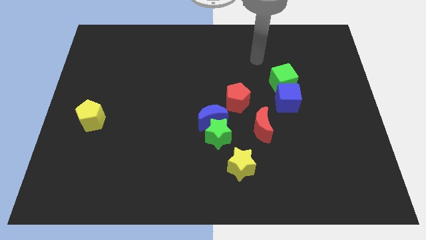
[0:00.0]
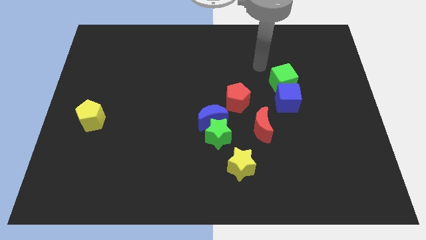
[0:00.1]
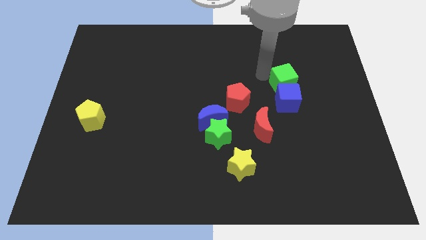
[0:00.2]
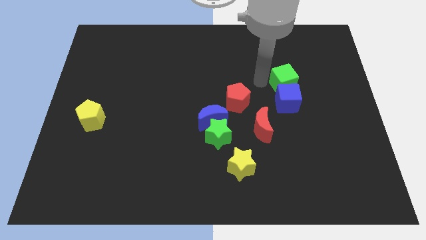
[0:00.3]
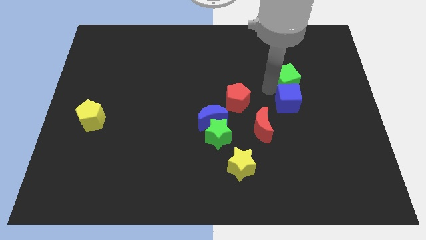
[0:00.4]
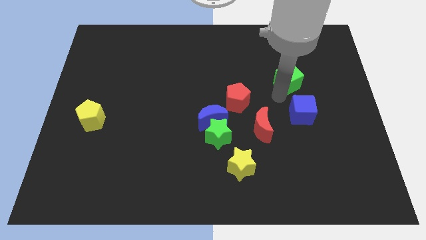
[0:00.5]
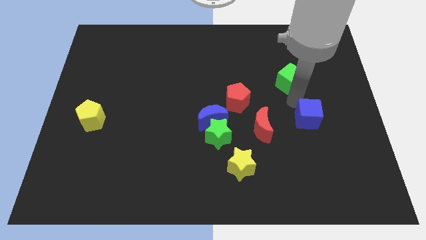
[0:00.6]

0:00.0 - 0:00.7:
pull the green cube apart from the blue cube

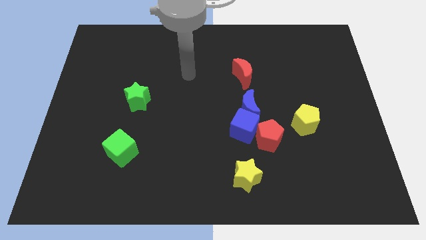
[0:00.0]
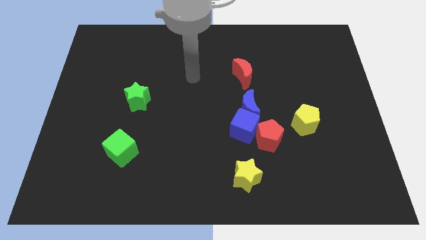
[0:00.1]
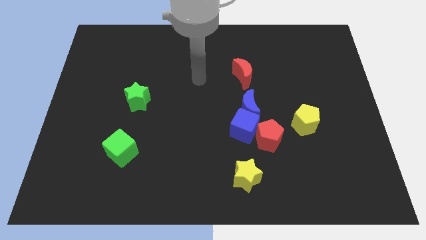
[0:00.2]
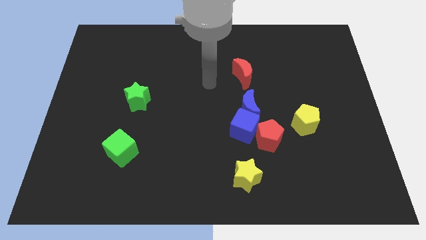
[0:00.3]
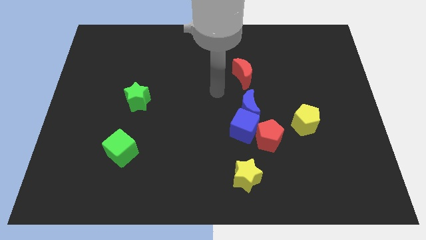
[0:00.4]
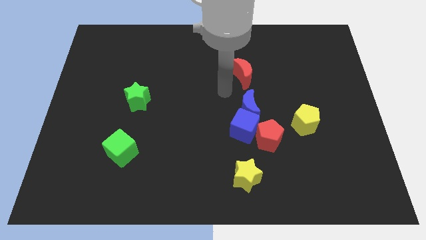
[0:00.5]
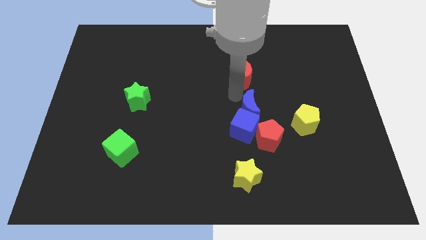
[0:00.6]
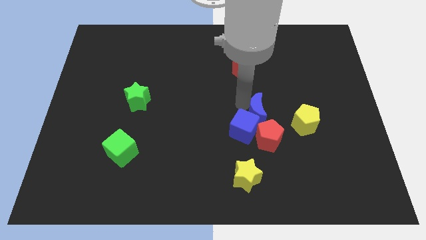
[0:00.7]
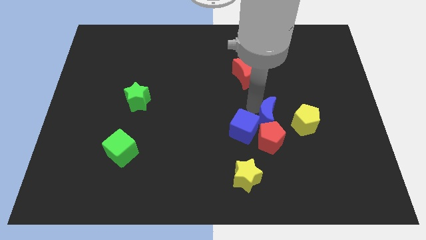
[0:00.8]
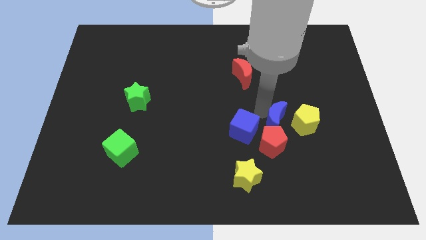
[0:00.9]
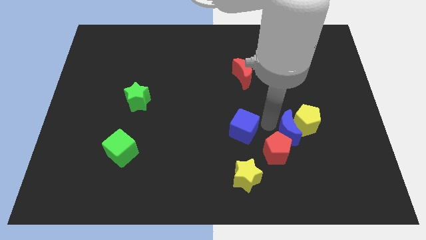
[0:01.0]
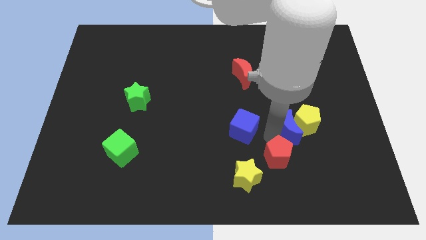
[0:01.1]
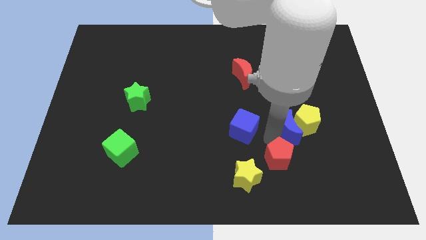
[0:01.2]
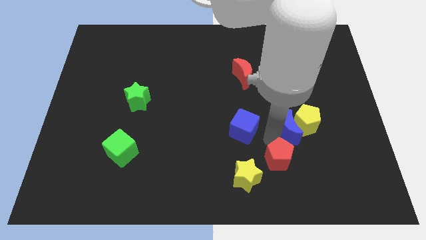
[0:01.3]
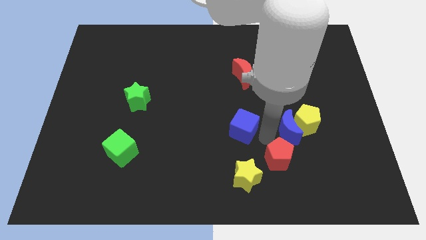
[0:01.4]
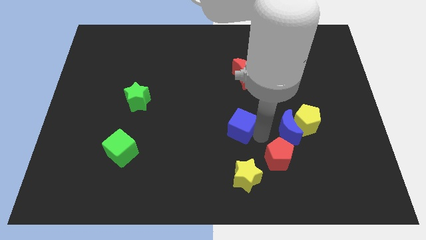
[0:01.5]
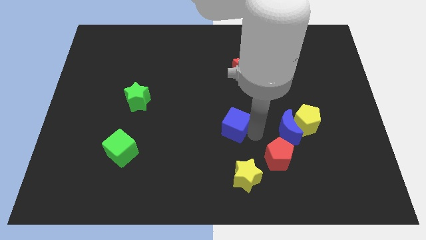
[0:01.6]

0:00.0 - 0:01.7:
separate the blue cube from the blue moon and red pentagon

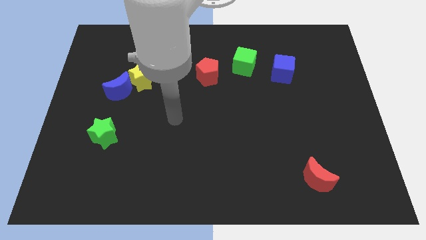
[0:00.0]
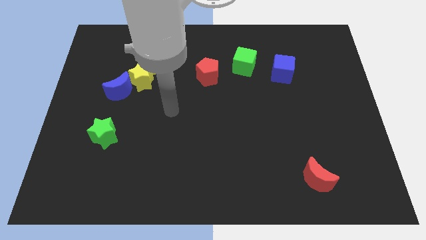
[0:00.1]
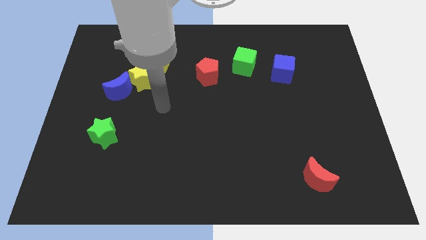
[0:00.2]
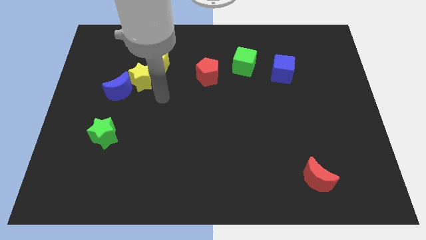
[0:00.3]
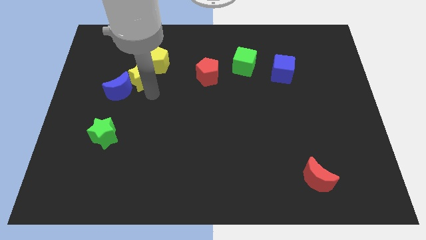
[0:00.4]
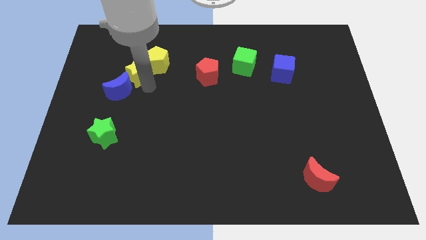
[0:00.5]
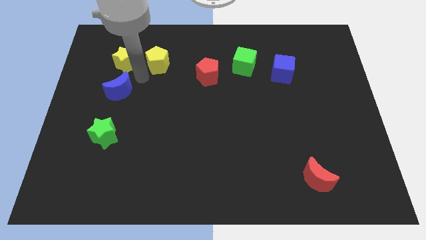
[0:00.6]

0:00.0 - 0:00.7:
move the blue moon away from the yellow star

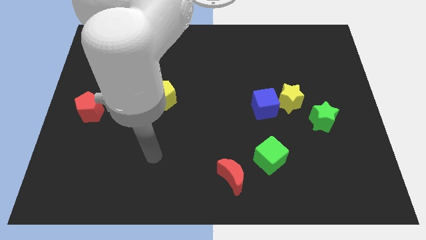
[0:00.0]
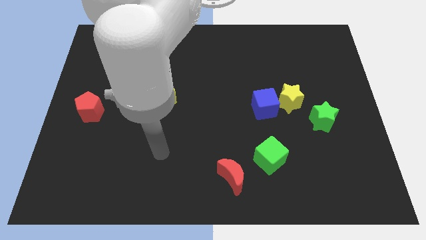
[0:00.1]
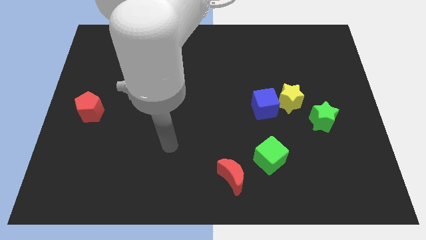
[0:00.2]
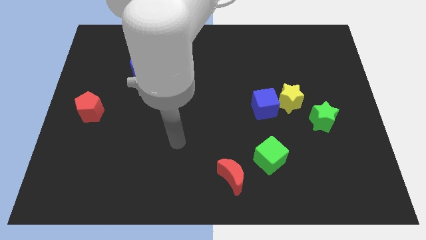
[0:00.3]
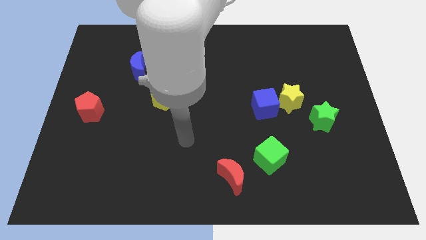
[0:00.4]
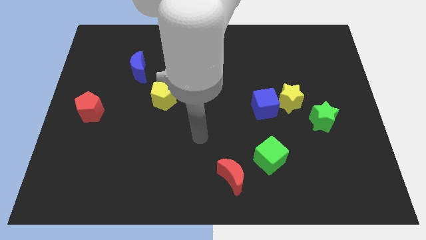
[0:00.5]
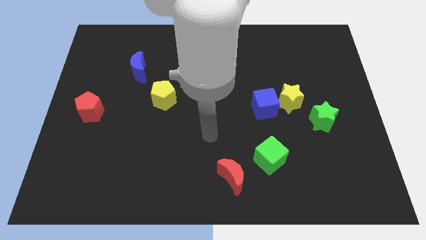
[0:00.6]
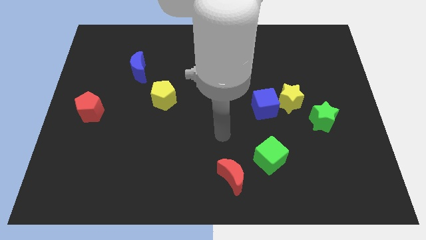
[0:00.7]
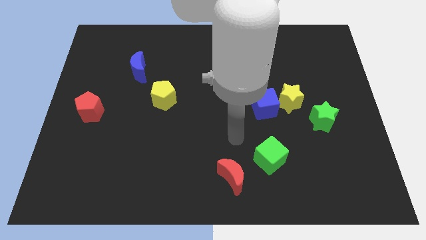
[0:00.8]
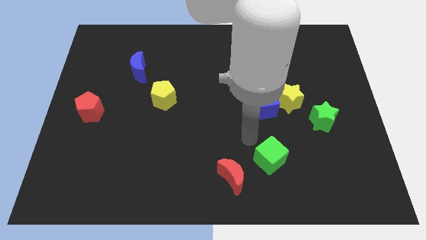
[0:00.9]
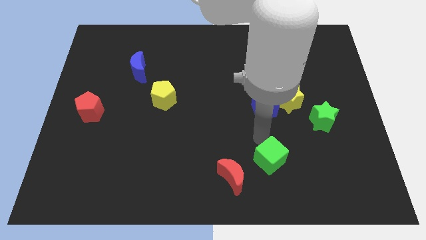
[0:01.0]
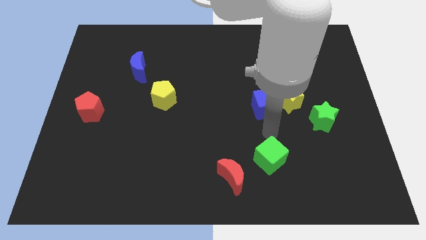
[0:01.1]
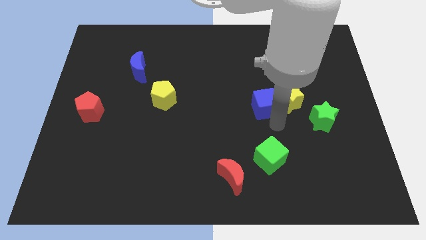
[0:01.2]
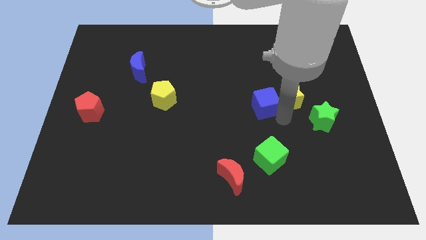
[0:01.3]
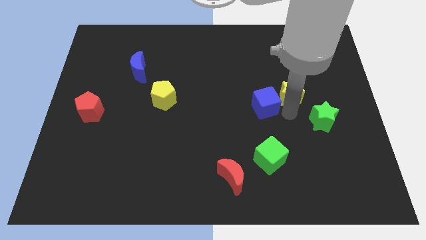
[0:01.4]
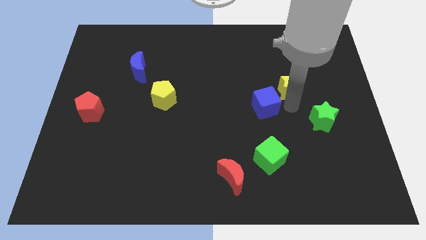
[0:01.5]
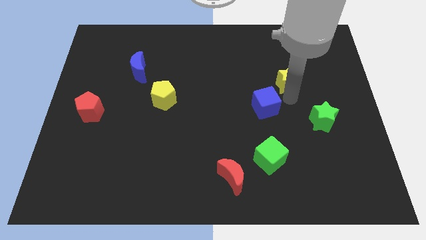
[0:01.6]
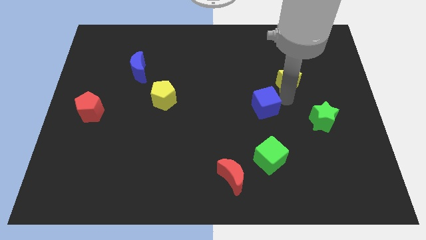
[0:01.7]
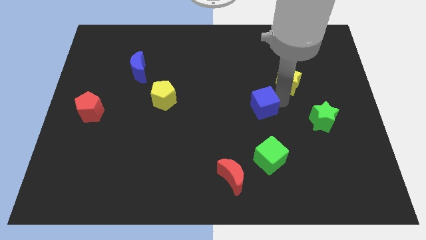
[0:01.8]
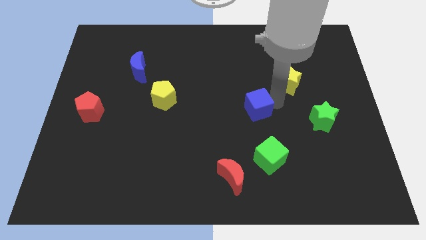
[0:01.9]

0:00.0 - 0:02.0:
separate the blue cube from the yellow star

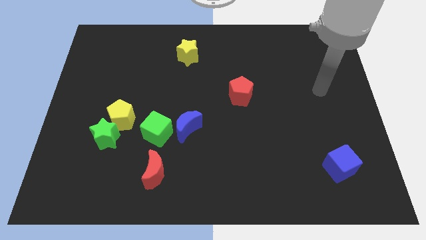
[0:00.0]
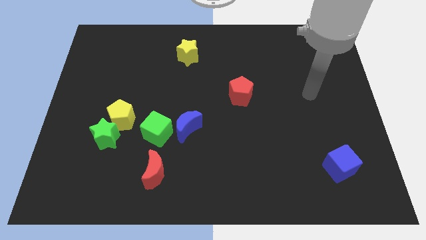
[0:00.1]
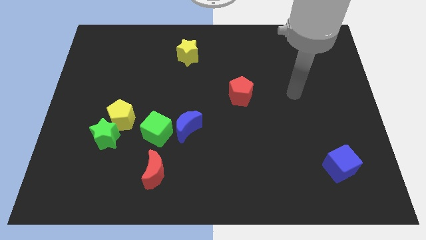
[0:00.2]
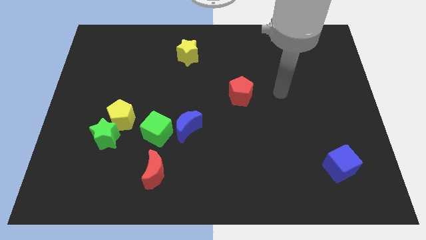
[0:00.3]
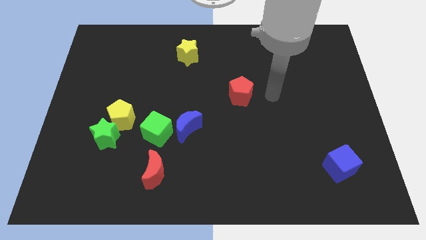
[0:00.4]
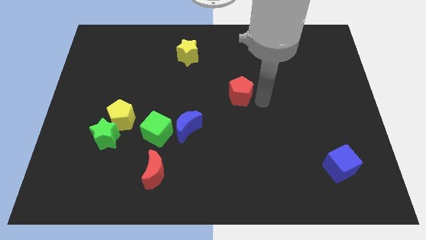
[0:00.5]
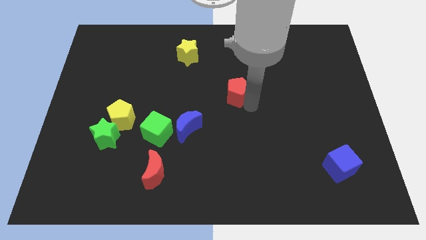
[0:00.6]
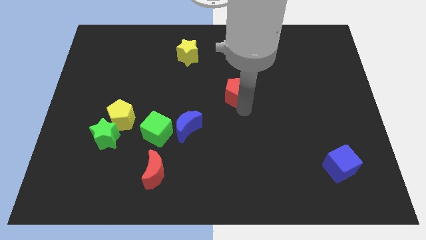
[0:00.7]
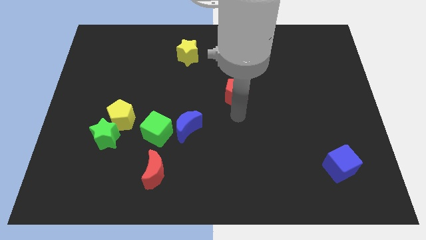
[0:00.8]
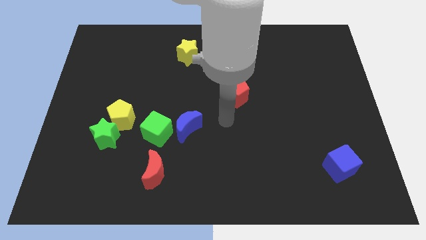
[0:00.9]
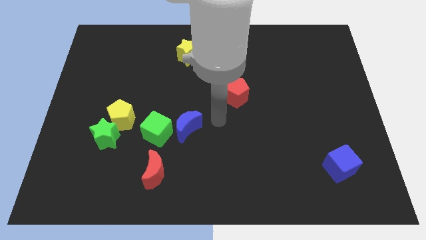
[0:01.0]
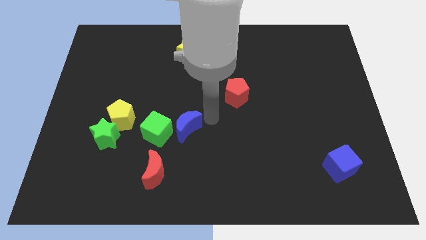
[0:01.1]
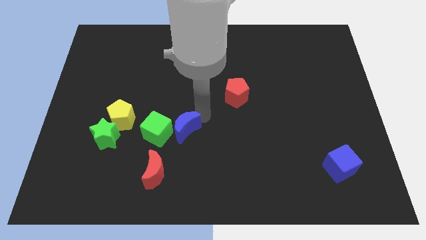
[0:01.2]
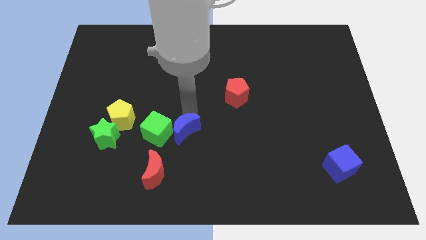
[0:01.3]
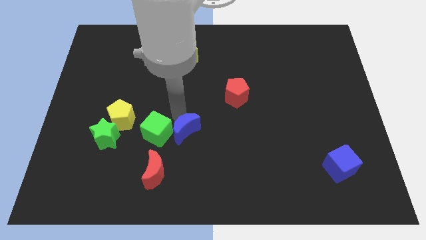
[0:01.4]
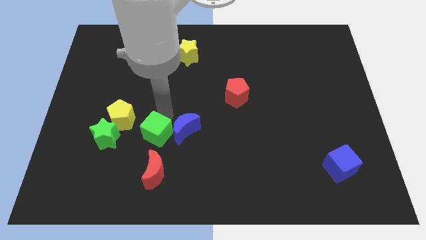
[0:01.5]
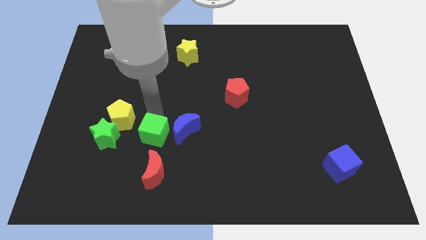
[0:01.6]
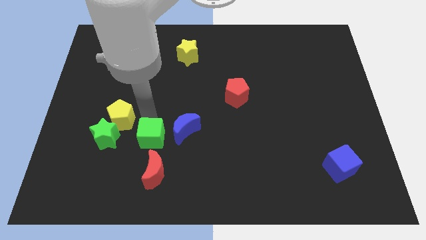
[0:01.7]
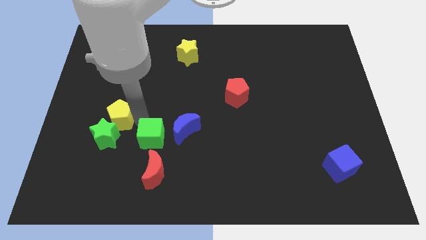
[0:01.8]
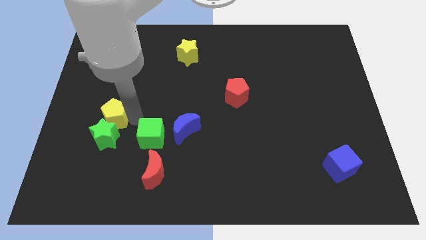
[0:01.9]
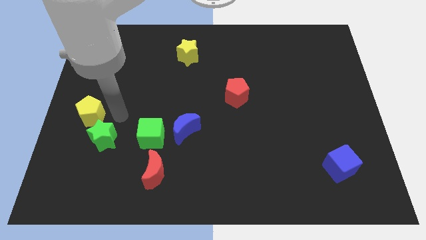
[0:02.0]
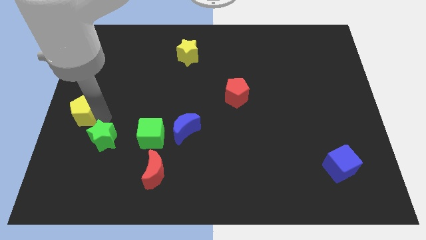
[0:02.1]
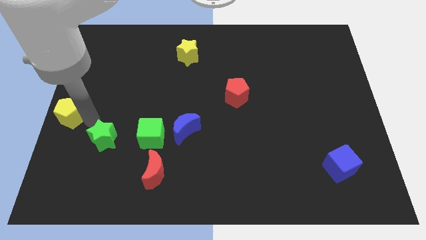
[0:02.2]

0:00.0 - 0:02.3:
move the green star away from the yellow pentagon

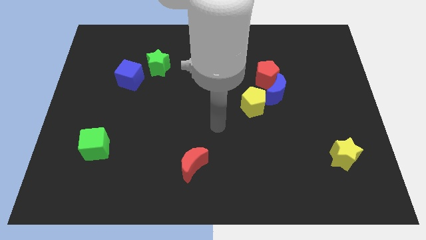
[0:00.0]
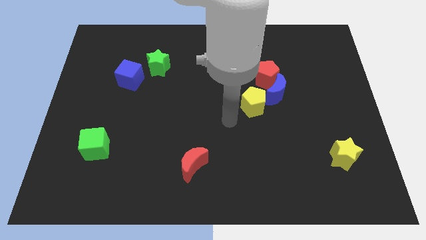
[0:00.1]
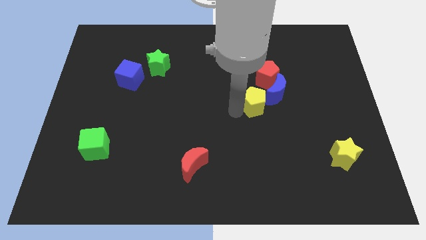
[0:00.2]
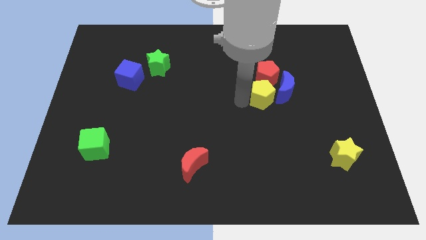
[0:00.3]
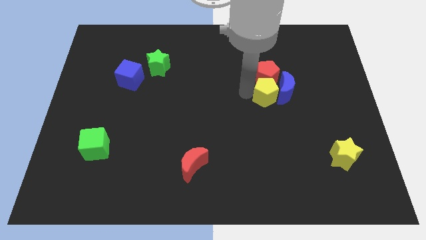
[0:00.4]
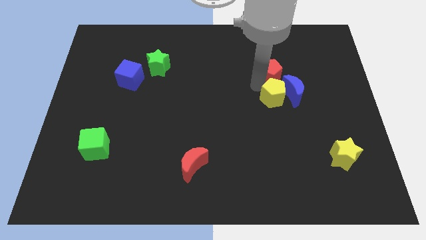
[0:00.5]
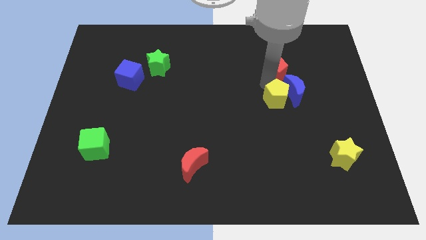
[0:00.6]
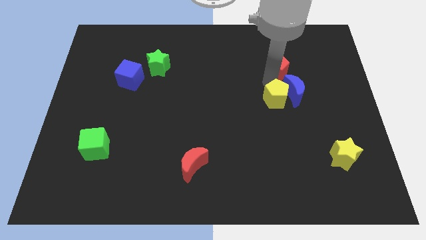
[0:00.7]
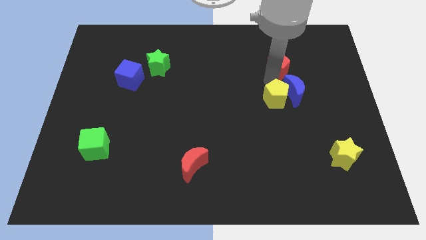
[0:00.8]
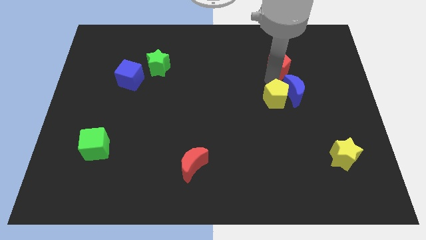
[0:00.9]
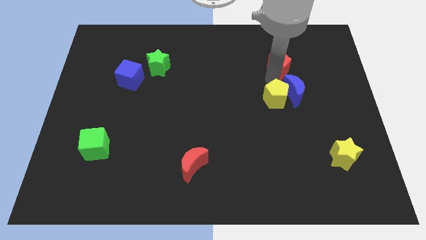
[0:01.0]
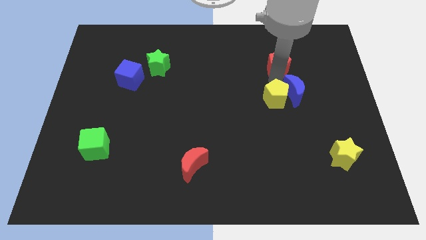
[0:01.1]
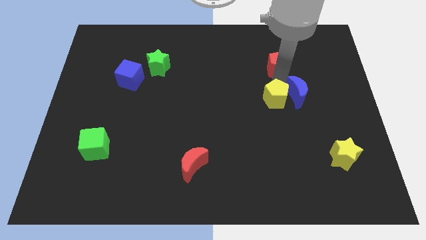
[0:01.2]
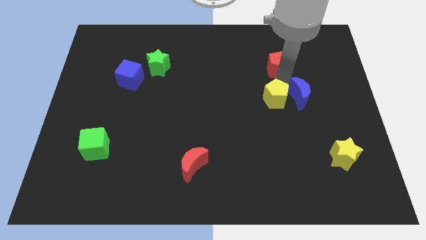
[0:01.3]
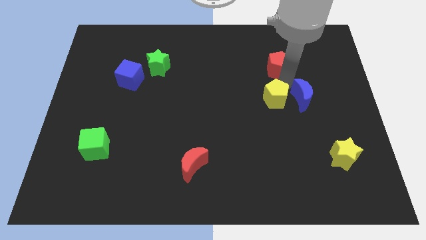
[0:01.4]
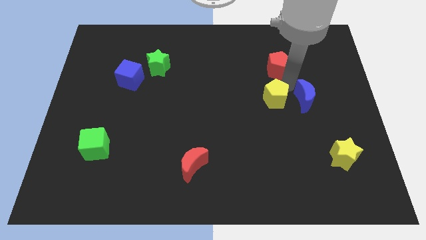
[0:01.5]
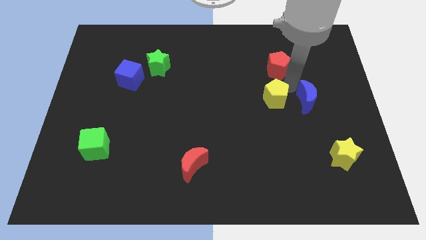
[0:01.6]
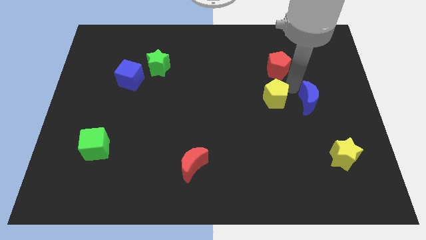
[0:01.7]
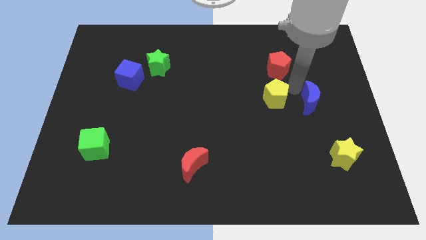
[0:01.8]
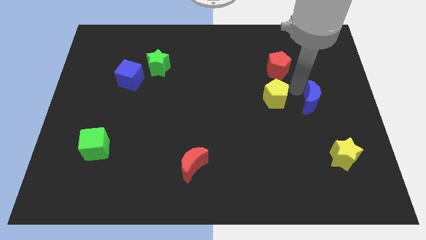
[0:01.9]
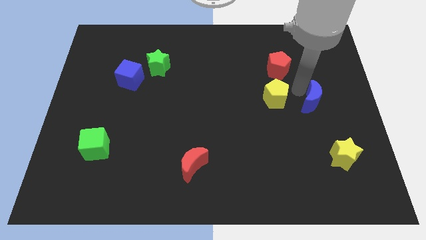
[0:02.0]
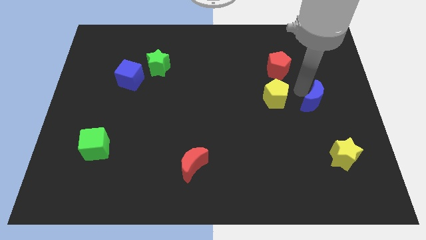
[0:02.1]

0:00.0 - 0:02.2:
pull the blue moon apart from the red pentagon and yellow pentagon
